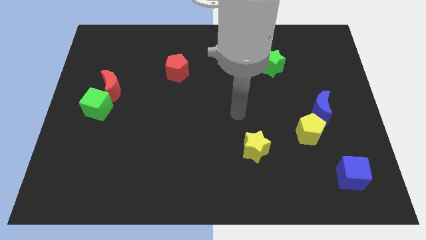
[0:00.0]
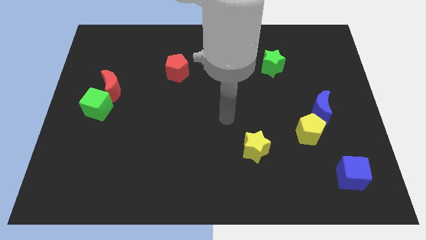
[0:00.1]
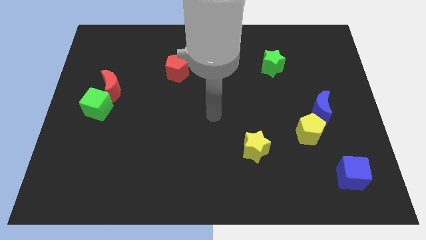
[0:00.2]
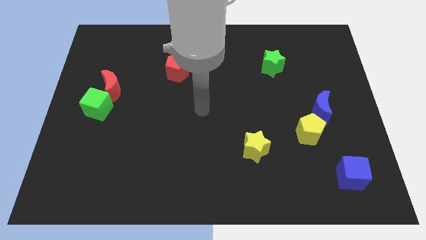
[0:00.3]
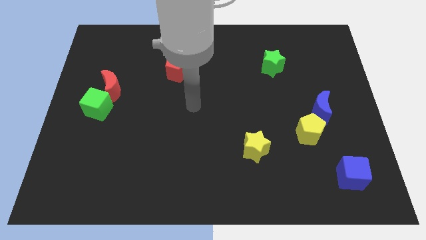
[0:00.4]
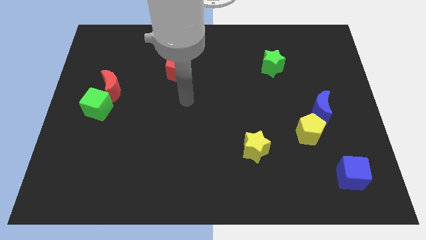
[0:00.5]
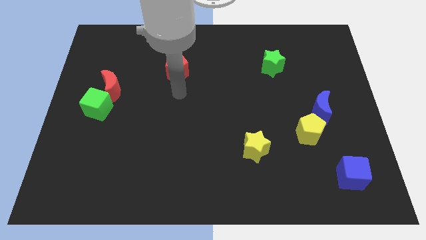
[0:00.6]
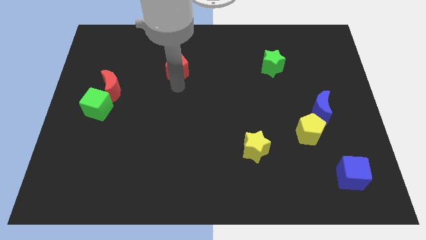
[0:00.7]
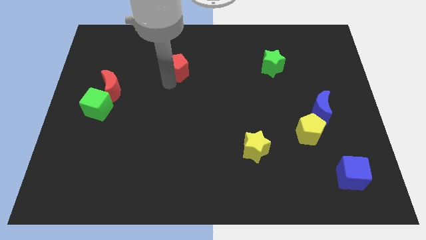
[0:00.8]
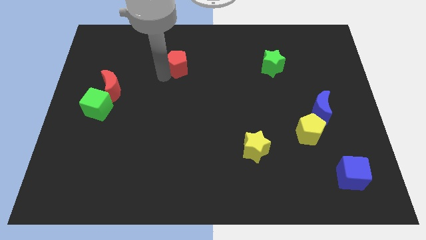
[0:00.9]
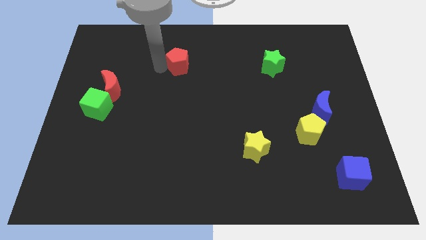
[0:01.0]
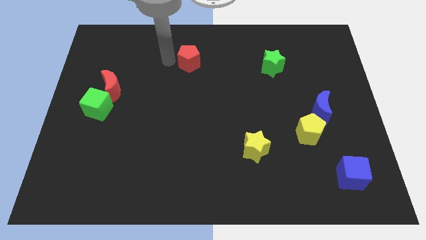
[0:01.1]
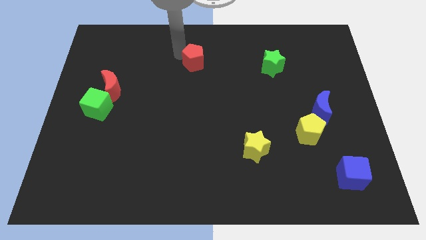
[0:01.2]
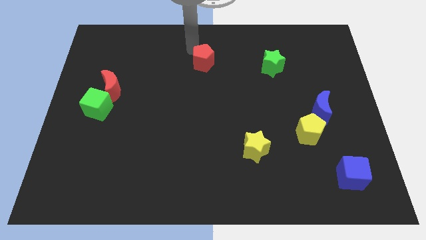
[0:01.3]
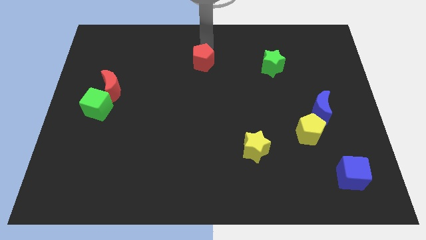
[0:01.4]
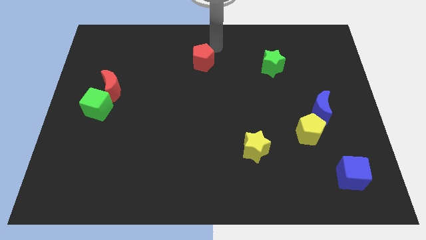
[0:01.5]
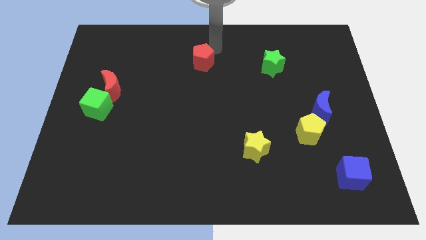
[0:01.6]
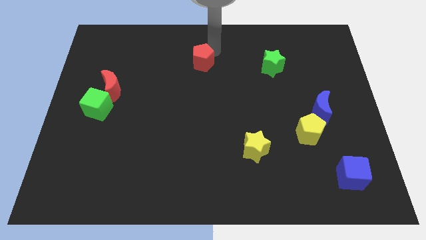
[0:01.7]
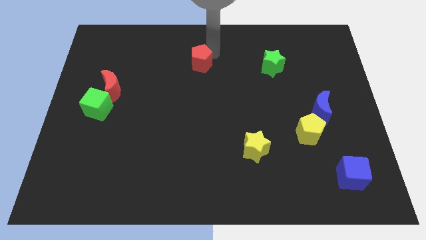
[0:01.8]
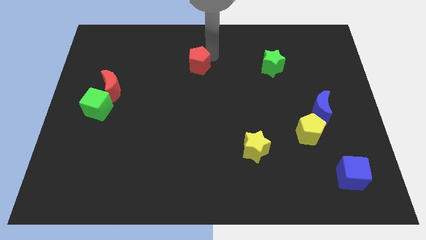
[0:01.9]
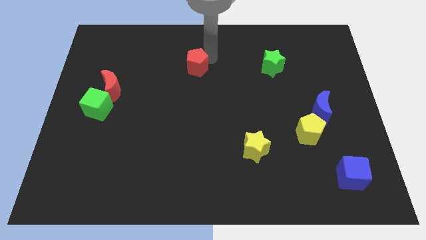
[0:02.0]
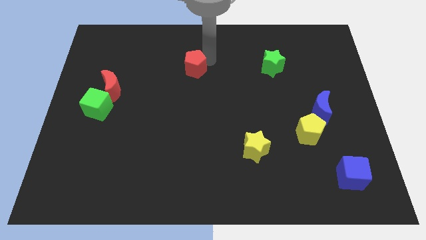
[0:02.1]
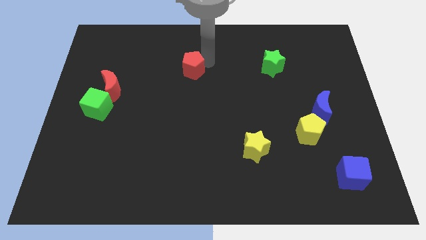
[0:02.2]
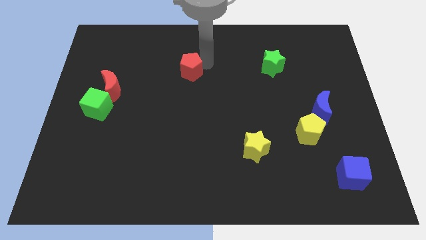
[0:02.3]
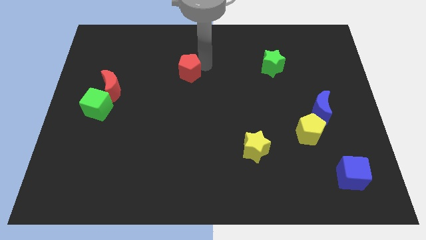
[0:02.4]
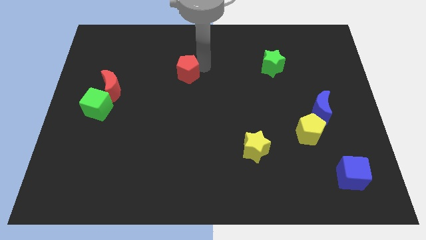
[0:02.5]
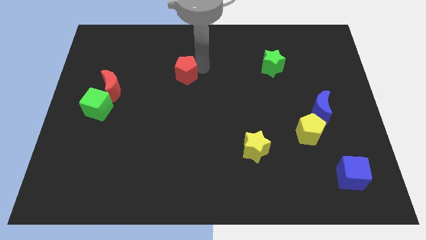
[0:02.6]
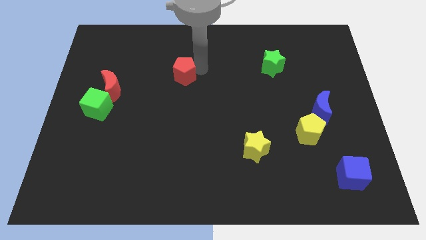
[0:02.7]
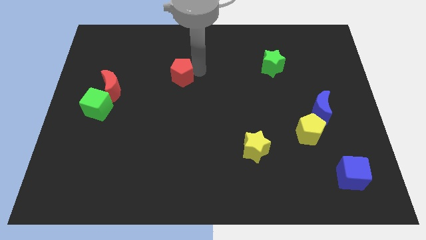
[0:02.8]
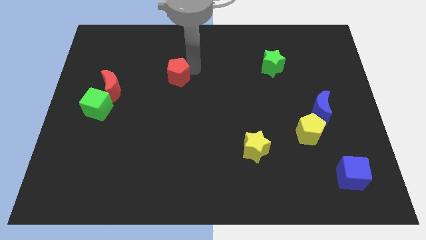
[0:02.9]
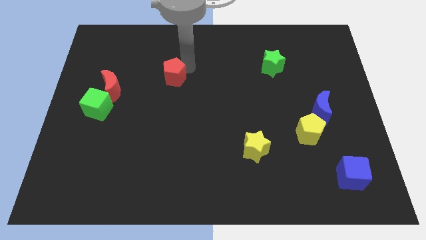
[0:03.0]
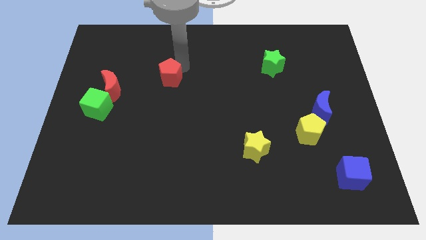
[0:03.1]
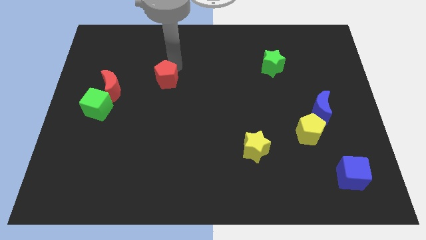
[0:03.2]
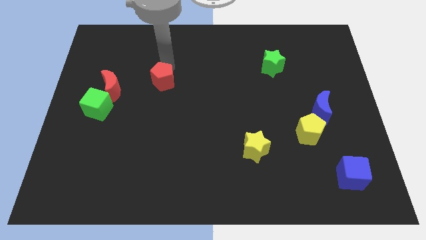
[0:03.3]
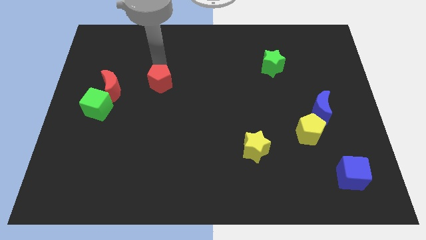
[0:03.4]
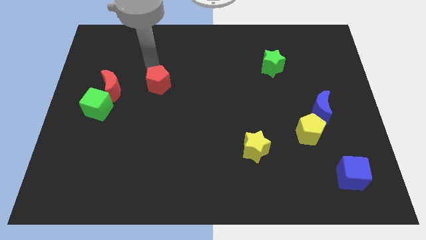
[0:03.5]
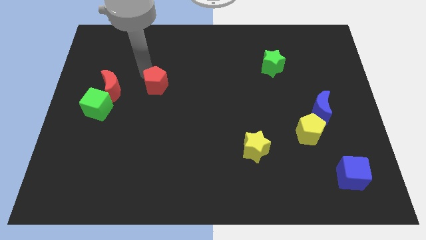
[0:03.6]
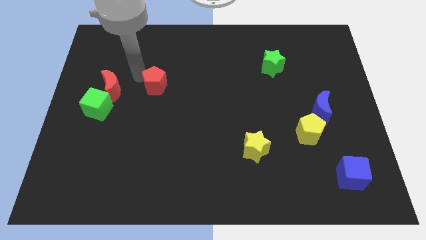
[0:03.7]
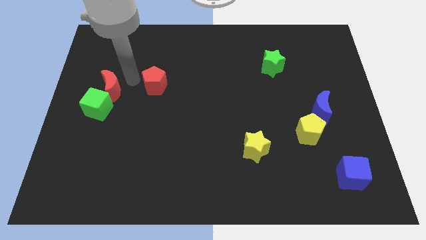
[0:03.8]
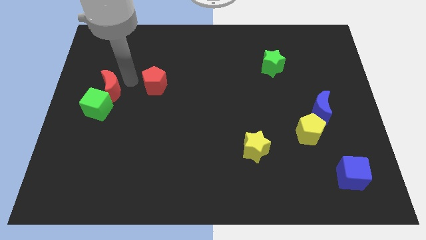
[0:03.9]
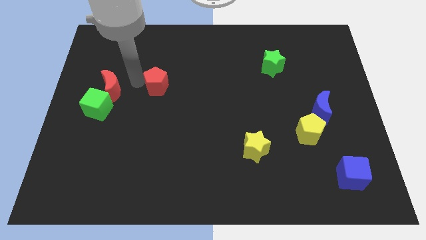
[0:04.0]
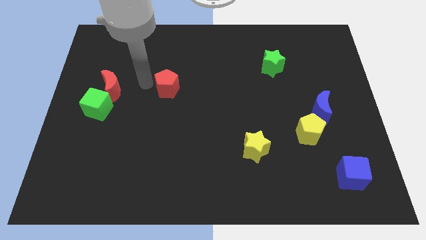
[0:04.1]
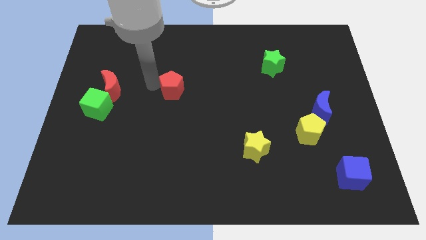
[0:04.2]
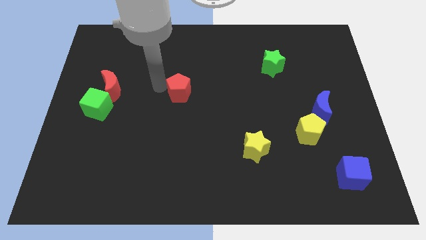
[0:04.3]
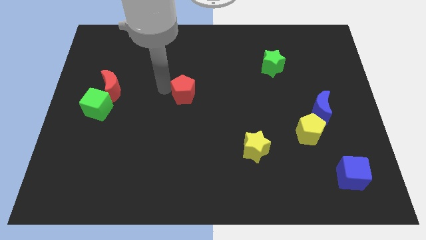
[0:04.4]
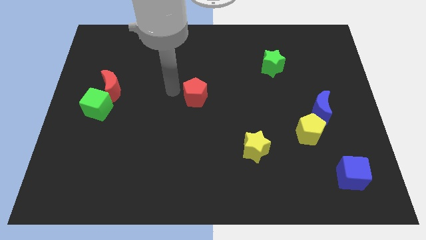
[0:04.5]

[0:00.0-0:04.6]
slightly push the red pentagon downwards and then to the right

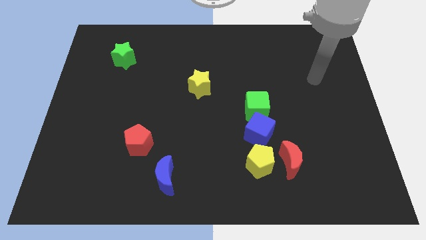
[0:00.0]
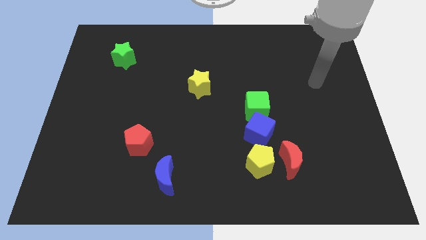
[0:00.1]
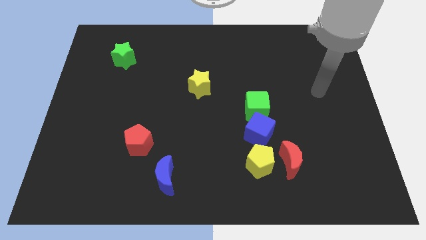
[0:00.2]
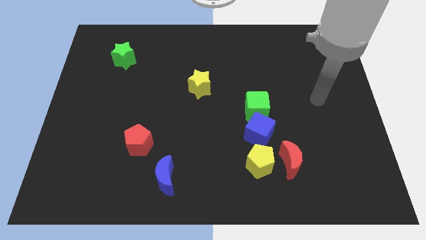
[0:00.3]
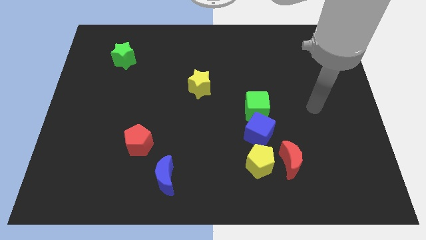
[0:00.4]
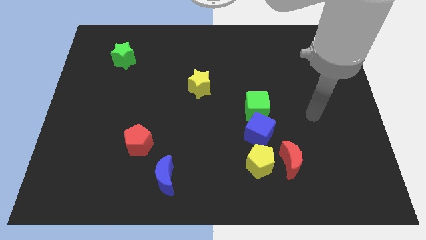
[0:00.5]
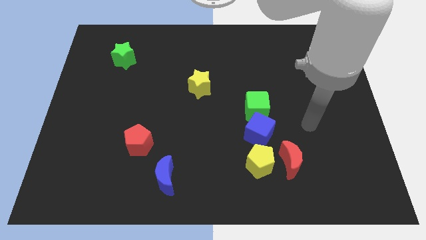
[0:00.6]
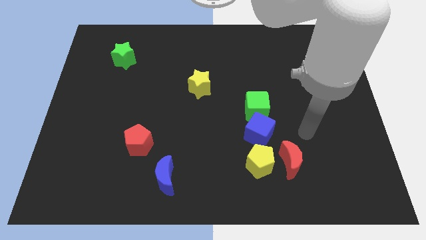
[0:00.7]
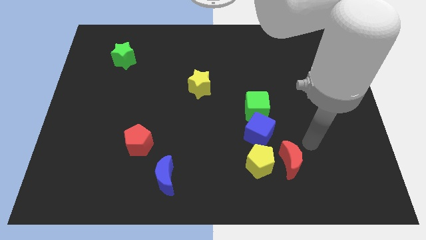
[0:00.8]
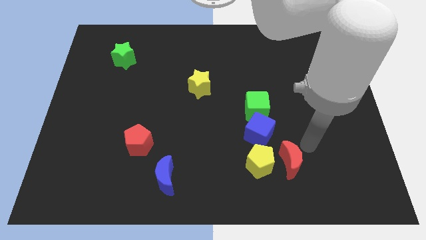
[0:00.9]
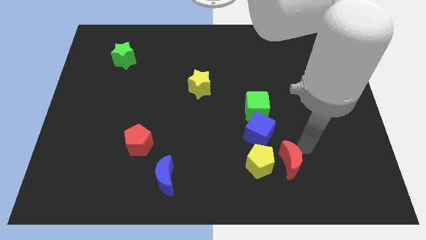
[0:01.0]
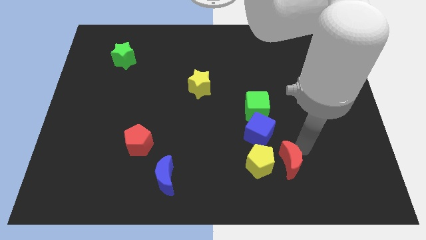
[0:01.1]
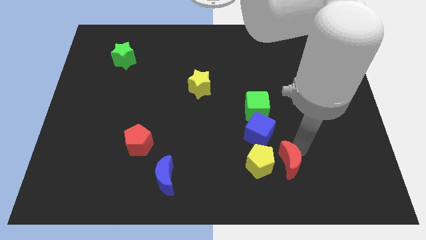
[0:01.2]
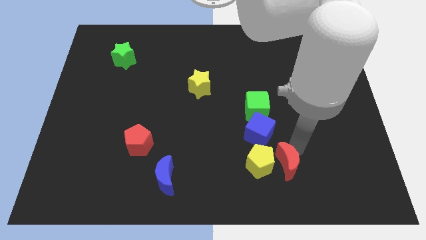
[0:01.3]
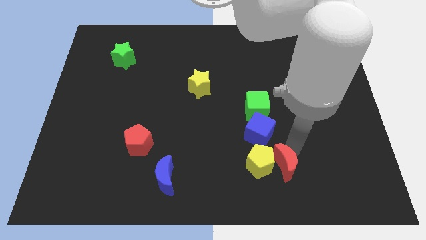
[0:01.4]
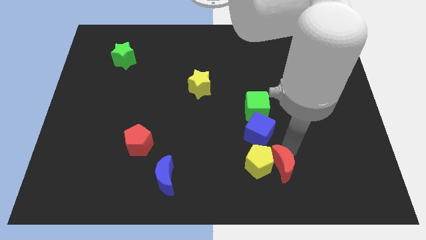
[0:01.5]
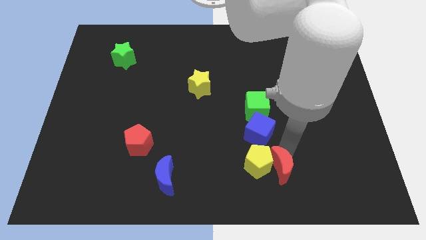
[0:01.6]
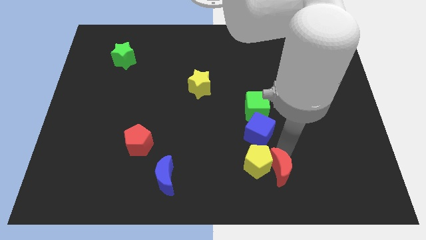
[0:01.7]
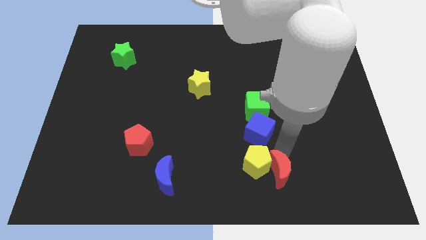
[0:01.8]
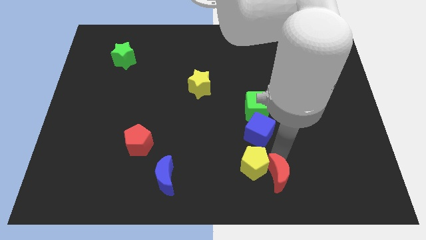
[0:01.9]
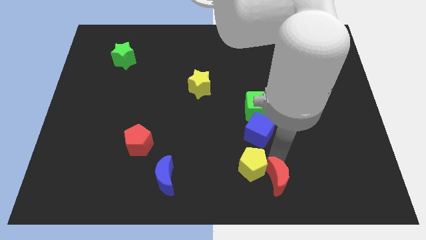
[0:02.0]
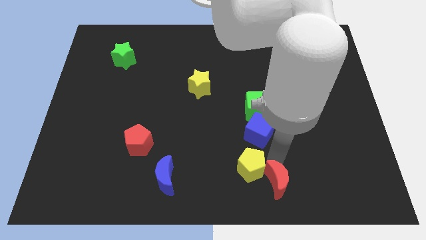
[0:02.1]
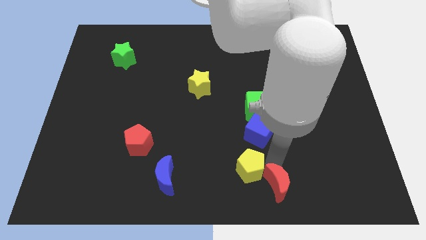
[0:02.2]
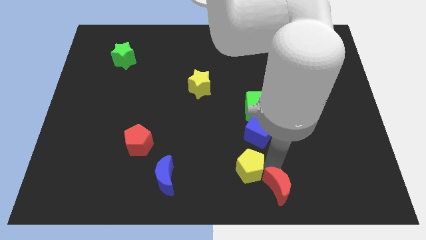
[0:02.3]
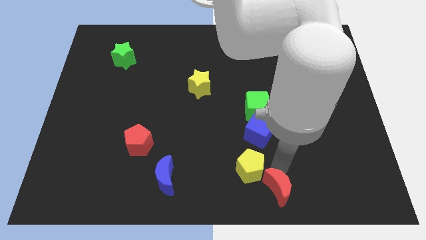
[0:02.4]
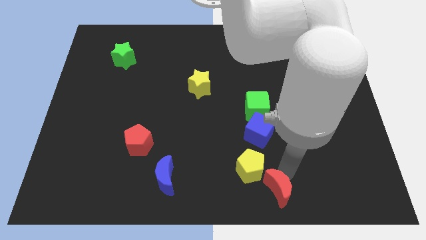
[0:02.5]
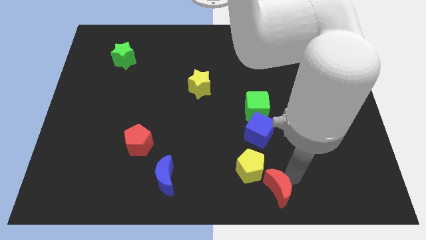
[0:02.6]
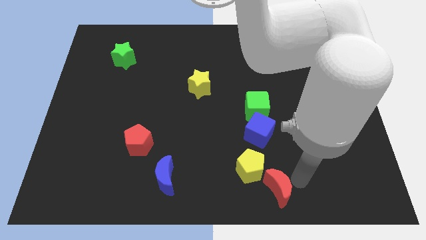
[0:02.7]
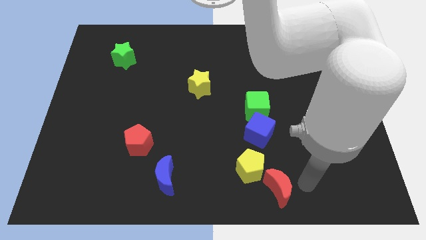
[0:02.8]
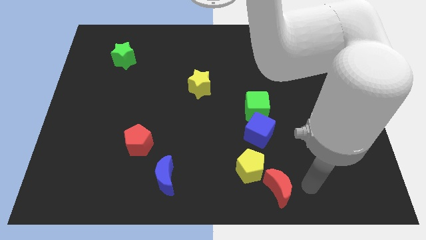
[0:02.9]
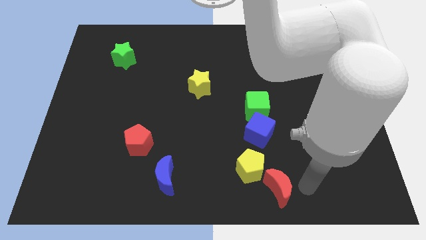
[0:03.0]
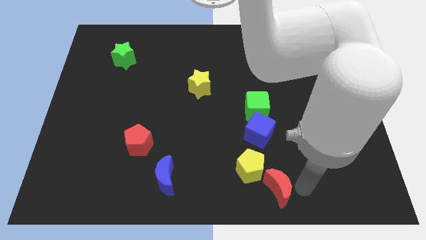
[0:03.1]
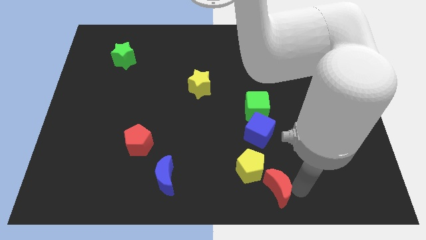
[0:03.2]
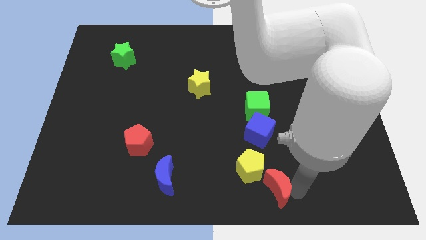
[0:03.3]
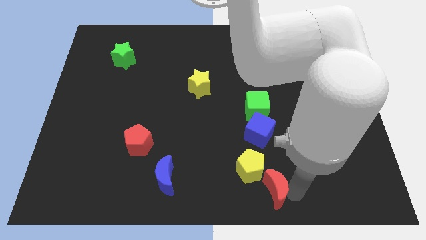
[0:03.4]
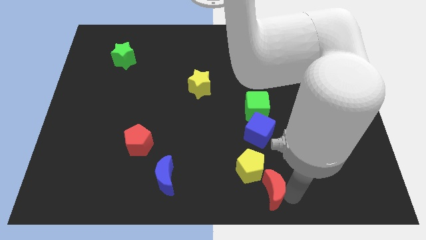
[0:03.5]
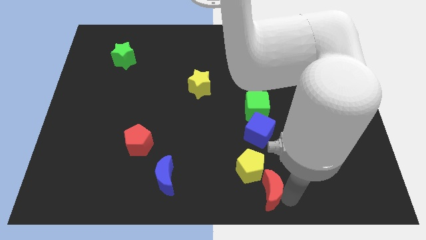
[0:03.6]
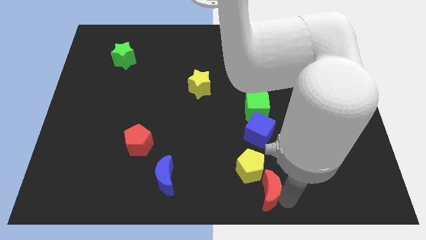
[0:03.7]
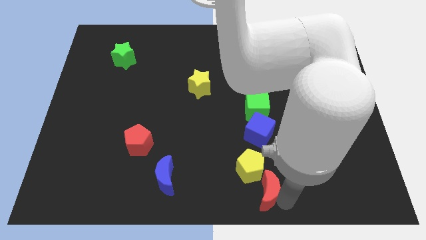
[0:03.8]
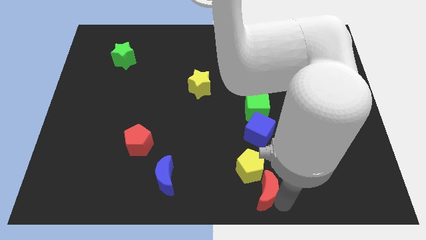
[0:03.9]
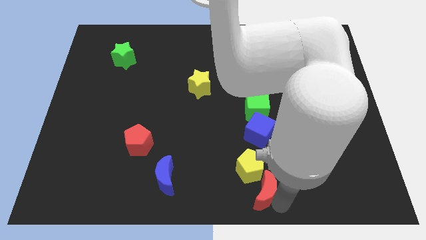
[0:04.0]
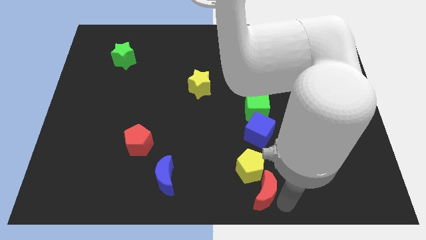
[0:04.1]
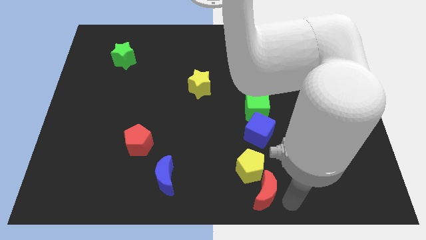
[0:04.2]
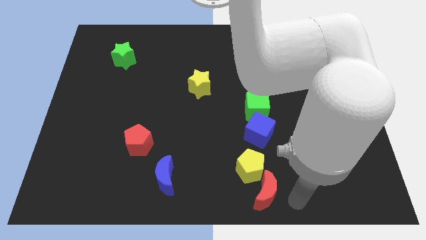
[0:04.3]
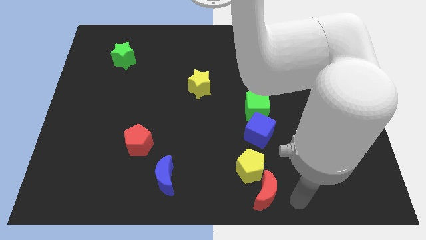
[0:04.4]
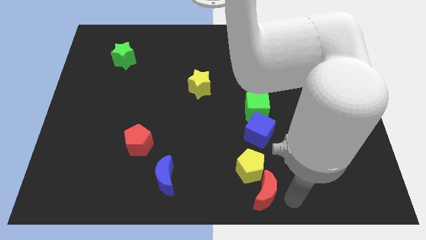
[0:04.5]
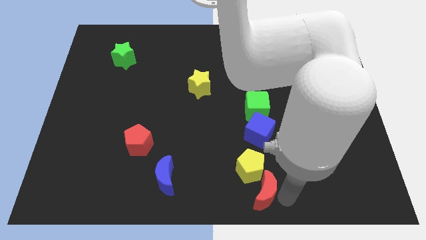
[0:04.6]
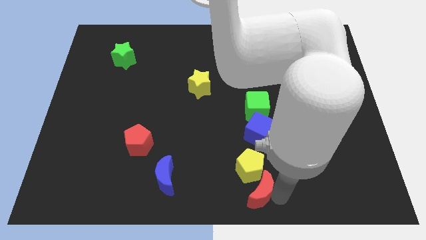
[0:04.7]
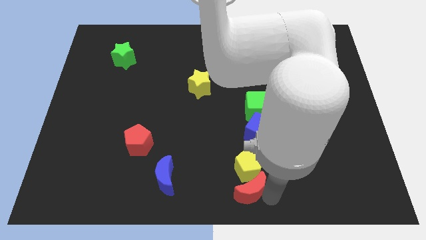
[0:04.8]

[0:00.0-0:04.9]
slightly slide the red moon left
